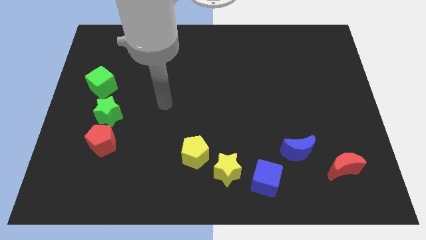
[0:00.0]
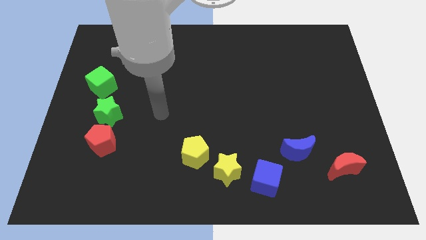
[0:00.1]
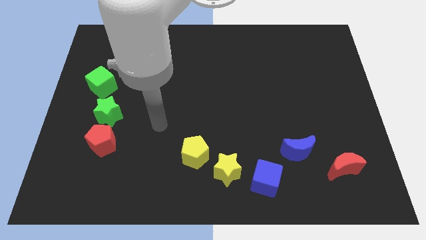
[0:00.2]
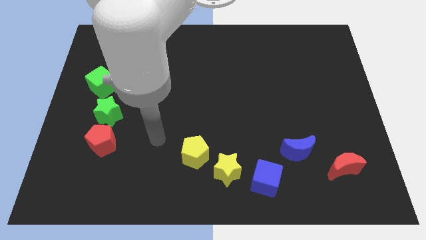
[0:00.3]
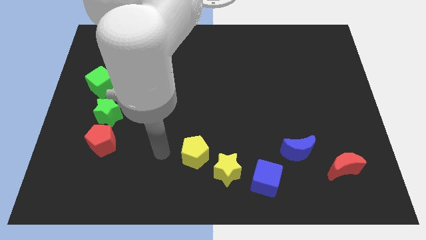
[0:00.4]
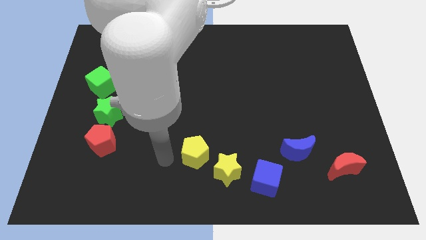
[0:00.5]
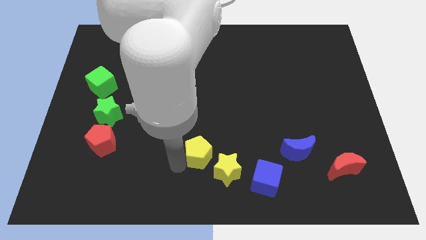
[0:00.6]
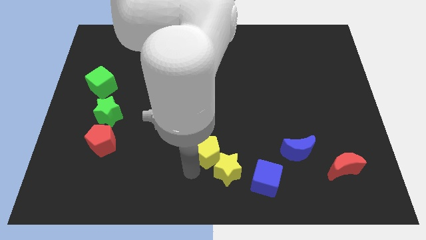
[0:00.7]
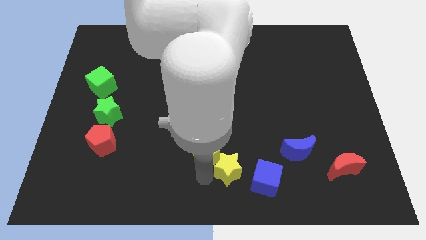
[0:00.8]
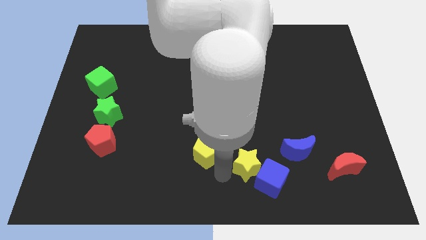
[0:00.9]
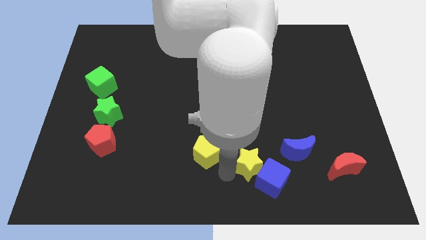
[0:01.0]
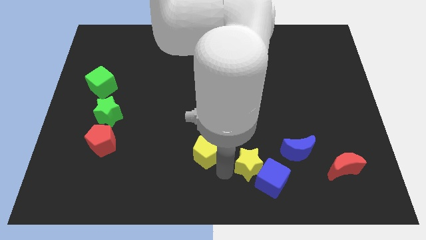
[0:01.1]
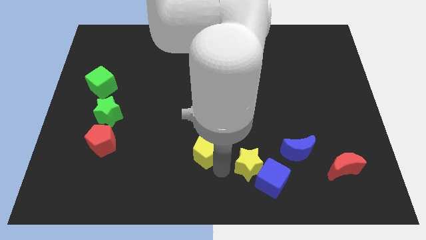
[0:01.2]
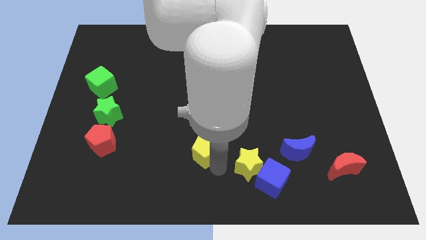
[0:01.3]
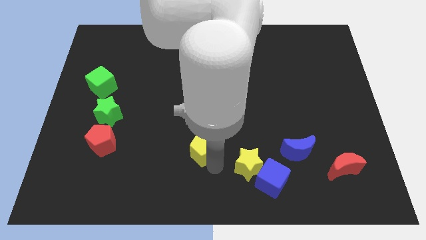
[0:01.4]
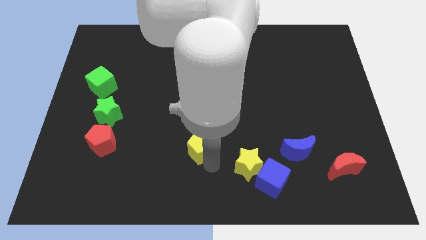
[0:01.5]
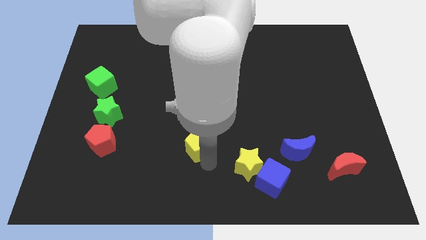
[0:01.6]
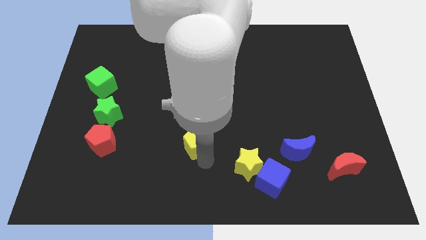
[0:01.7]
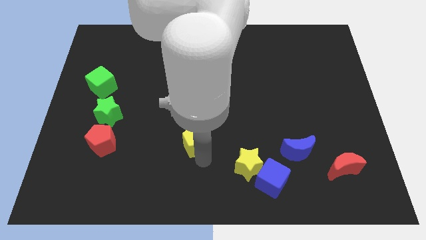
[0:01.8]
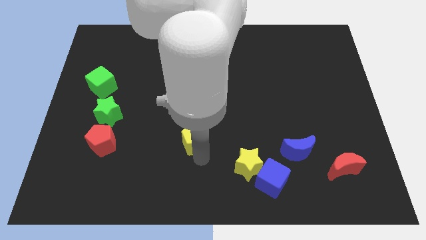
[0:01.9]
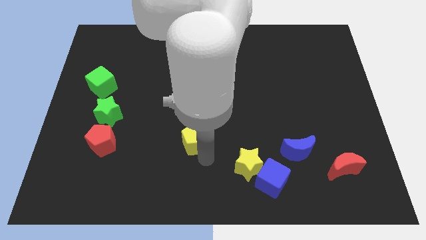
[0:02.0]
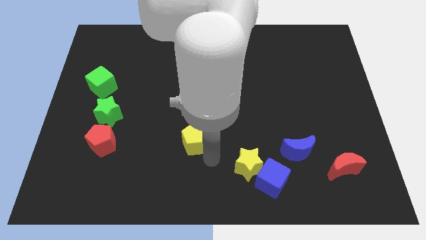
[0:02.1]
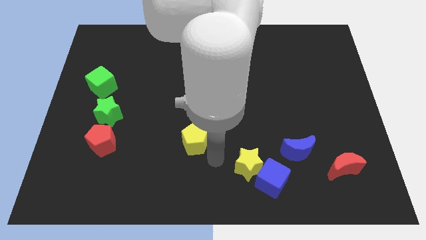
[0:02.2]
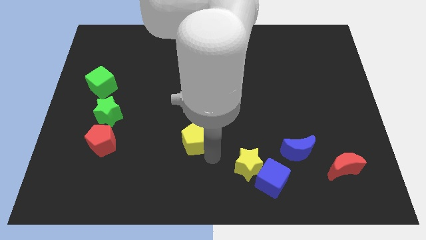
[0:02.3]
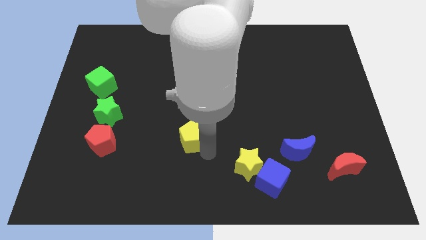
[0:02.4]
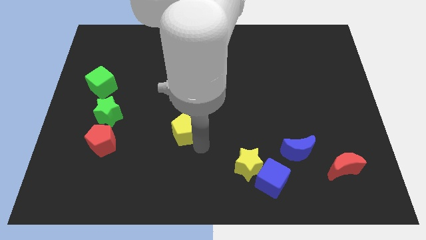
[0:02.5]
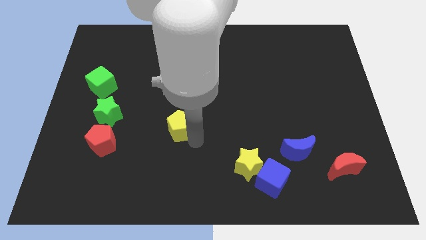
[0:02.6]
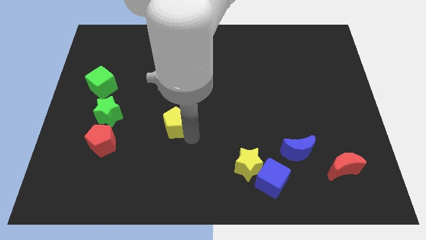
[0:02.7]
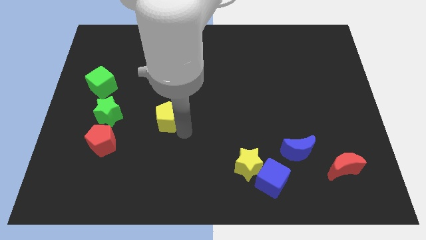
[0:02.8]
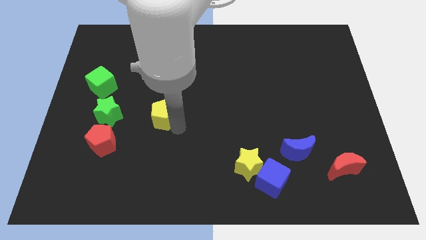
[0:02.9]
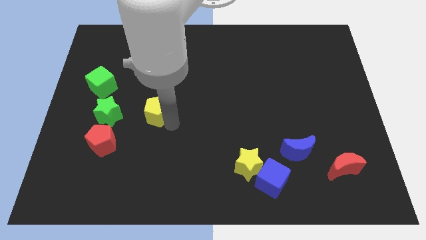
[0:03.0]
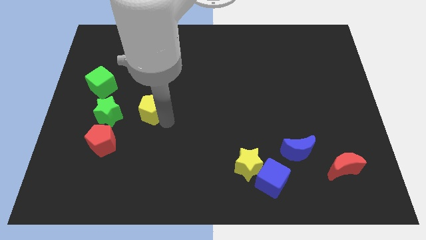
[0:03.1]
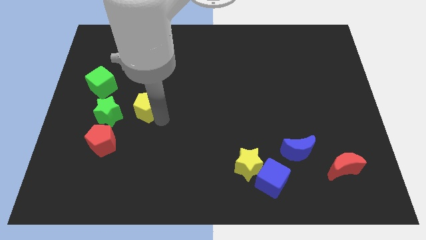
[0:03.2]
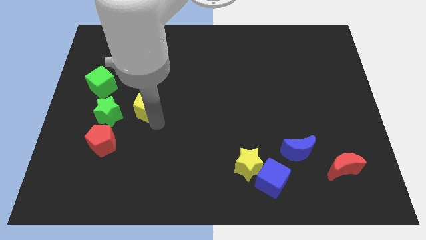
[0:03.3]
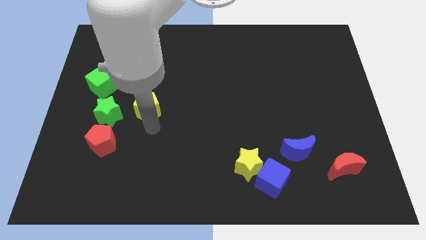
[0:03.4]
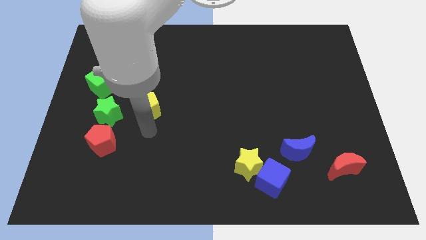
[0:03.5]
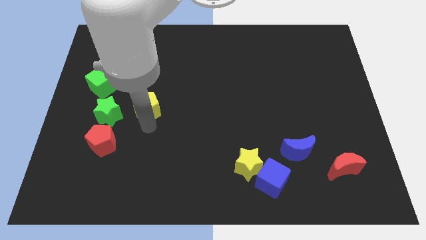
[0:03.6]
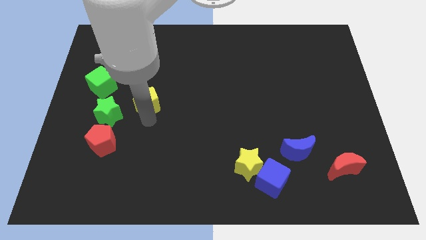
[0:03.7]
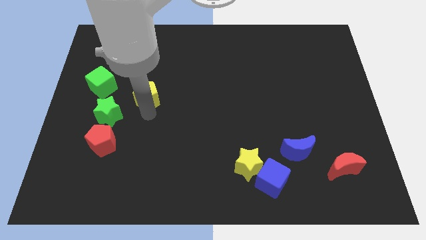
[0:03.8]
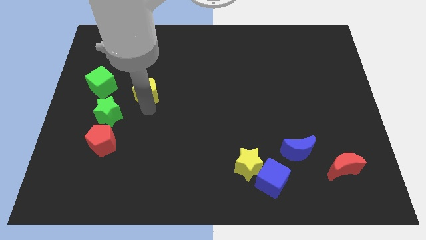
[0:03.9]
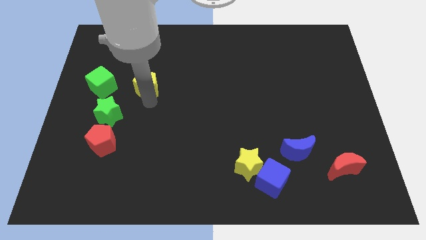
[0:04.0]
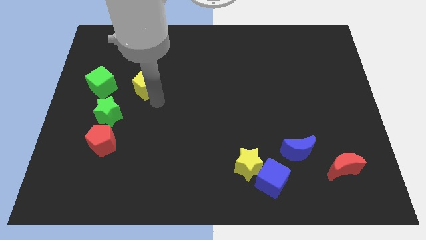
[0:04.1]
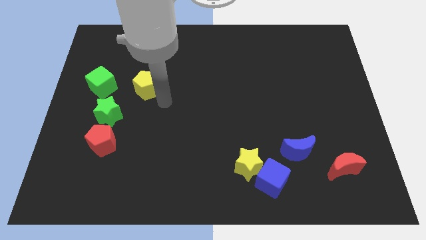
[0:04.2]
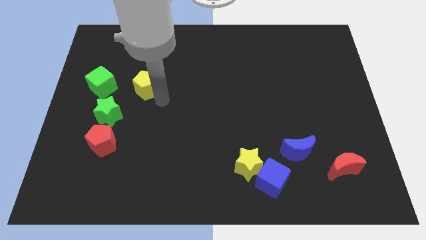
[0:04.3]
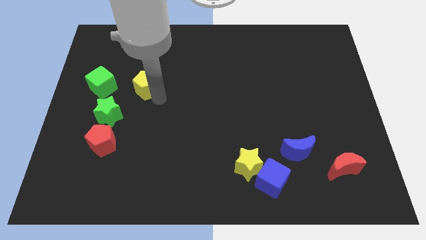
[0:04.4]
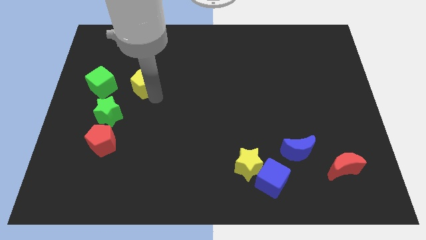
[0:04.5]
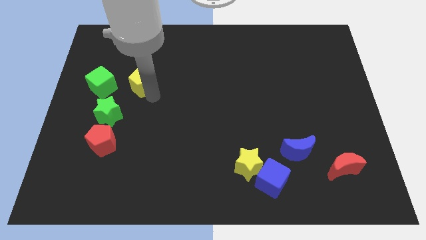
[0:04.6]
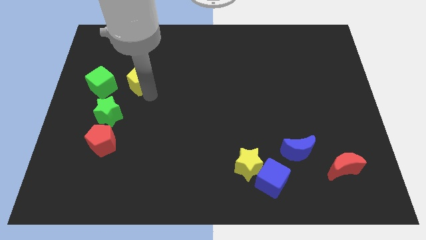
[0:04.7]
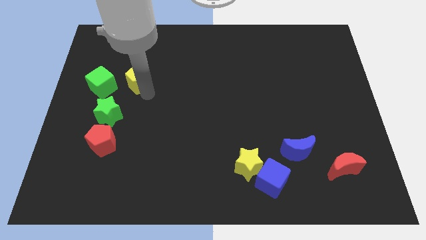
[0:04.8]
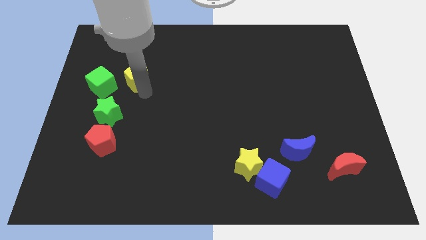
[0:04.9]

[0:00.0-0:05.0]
move the yellow pentagon to the top right side of the green cube

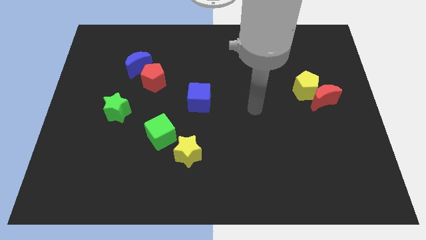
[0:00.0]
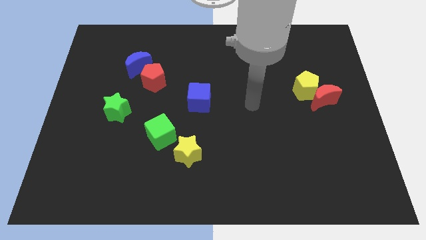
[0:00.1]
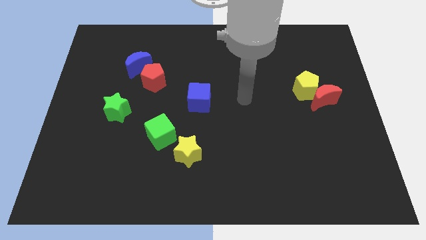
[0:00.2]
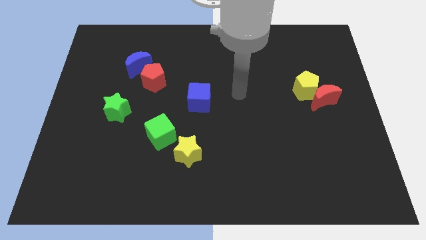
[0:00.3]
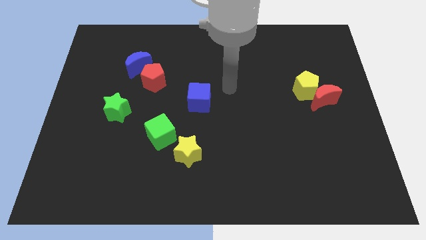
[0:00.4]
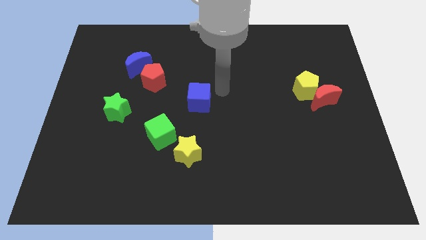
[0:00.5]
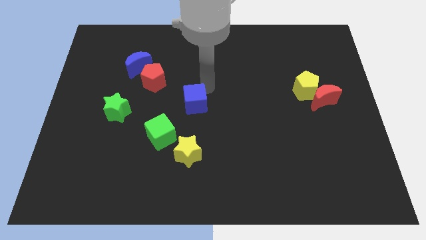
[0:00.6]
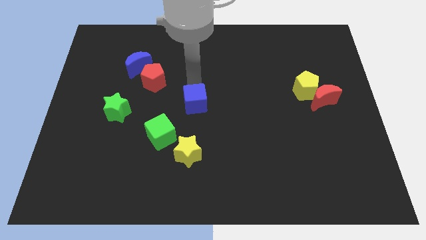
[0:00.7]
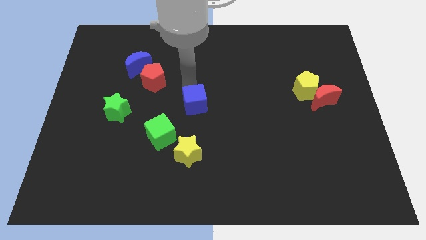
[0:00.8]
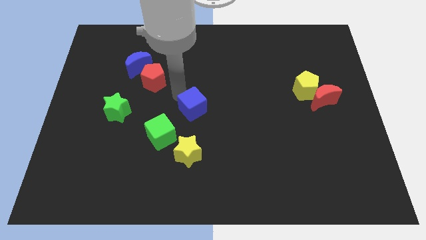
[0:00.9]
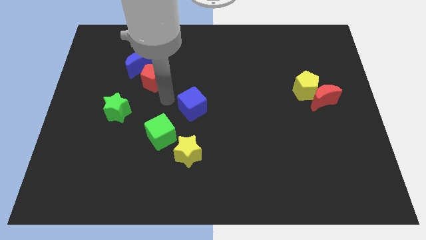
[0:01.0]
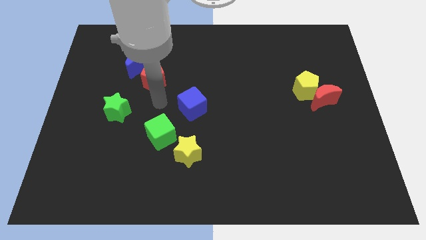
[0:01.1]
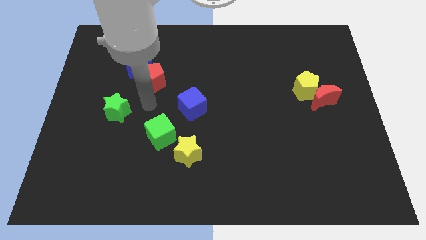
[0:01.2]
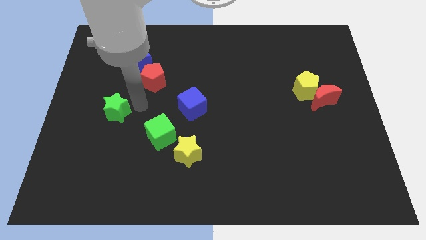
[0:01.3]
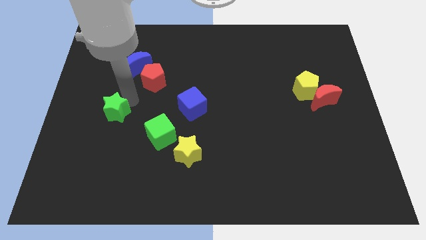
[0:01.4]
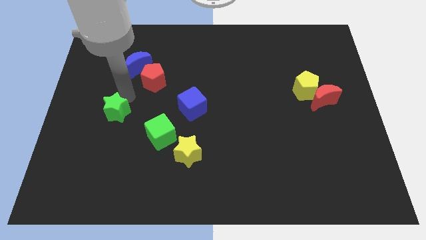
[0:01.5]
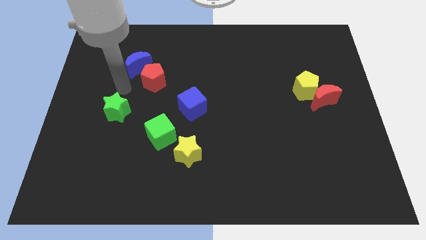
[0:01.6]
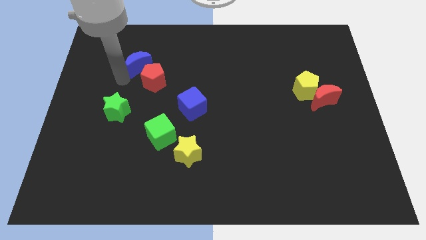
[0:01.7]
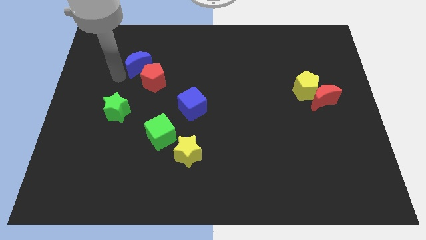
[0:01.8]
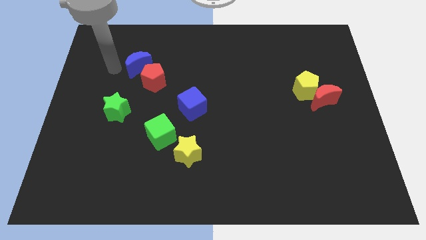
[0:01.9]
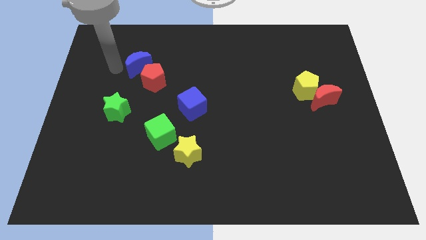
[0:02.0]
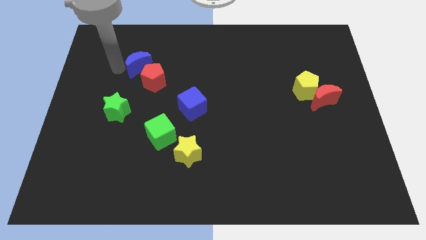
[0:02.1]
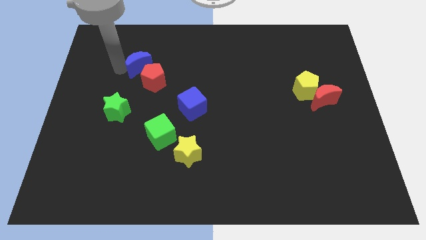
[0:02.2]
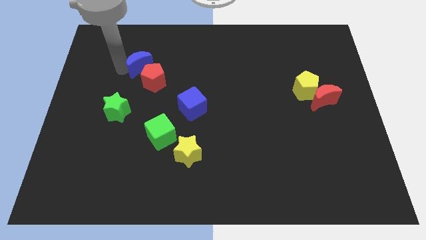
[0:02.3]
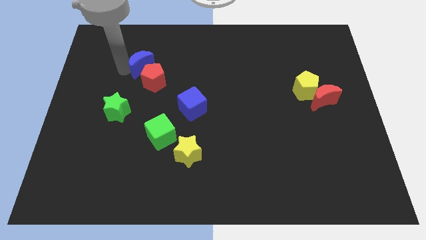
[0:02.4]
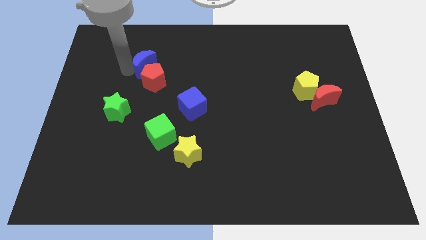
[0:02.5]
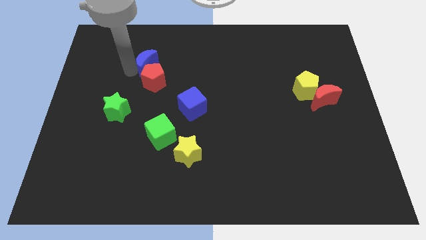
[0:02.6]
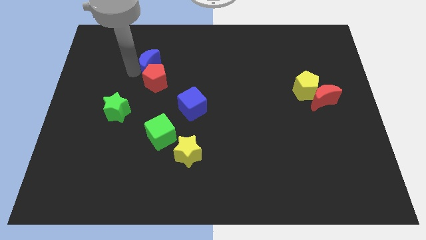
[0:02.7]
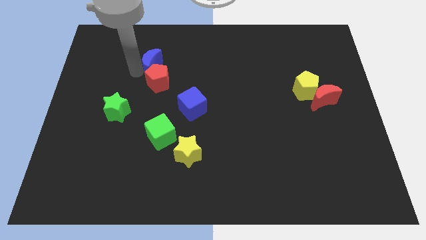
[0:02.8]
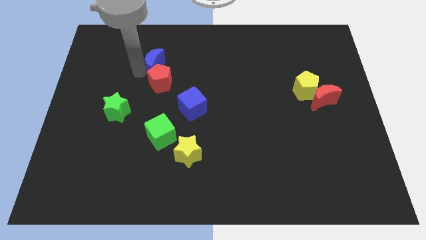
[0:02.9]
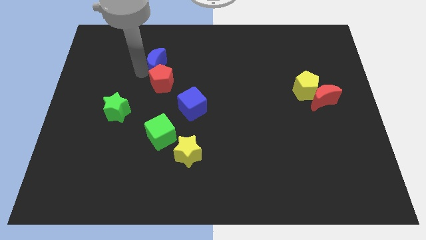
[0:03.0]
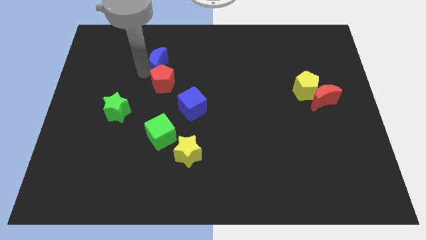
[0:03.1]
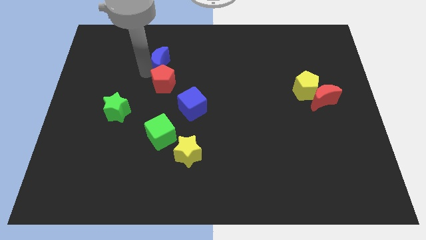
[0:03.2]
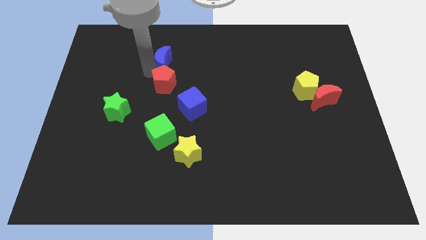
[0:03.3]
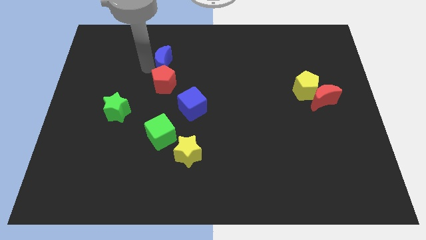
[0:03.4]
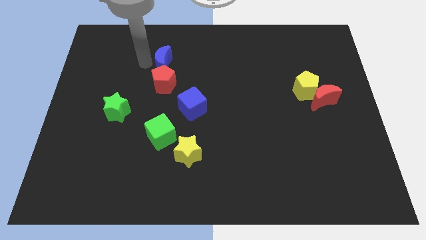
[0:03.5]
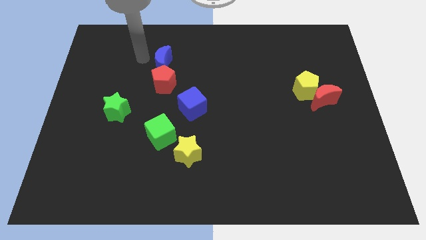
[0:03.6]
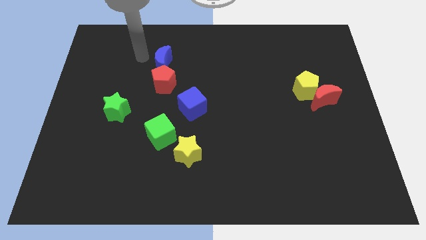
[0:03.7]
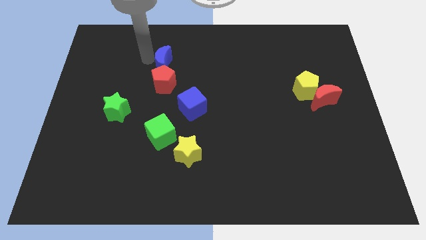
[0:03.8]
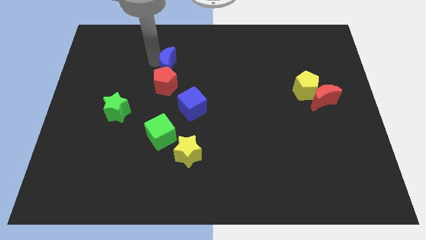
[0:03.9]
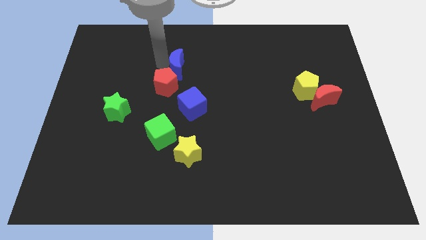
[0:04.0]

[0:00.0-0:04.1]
put the blue moon to the top side of the blue cube
